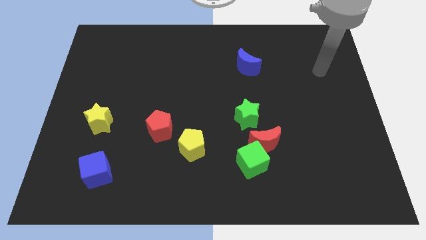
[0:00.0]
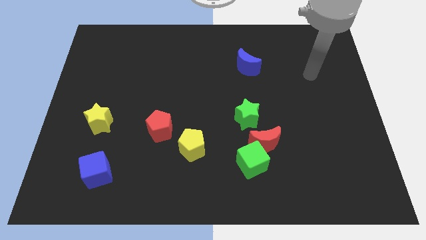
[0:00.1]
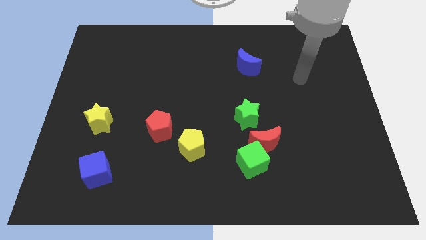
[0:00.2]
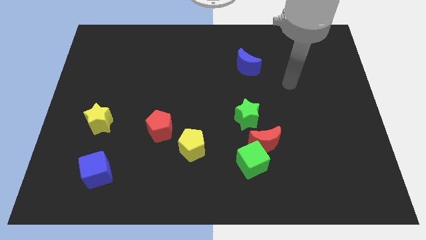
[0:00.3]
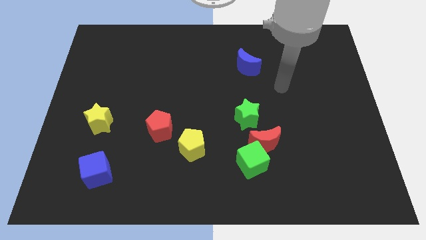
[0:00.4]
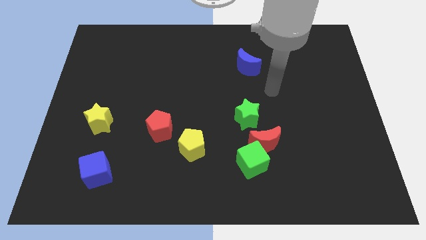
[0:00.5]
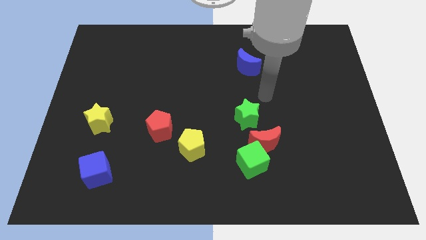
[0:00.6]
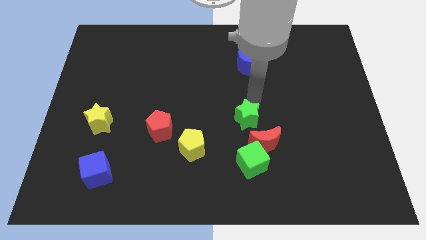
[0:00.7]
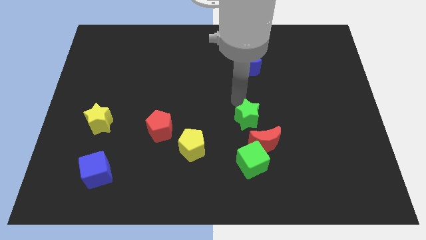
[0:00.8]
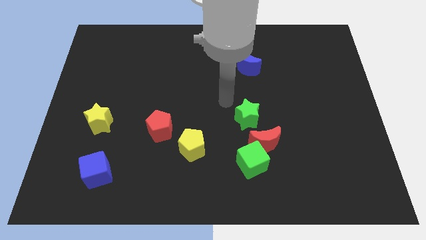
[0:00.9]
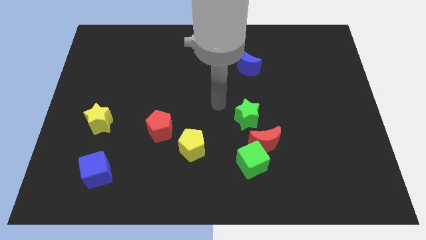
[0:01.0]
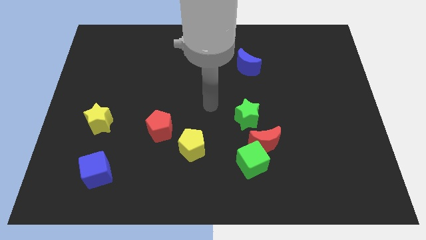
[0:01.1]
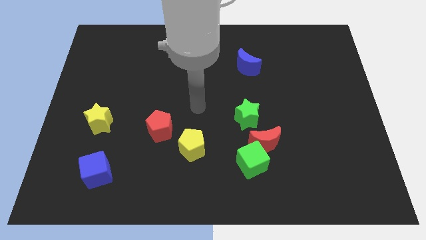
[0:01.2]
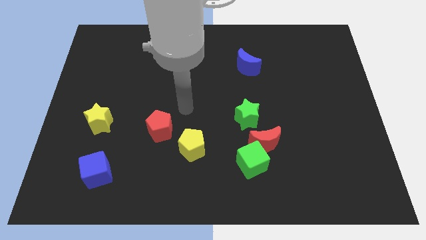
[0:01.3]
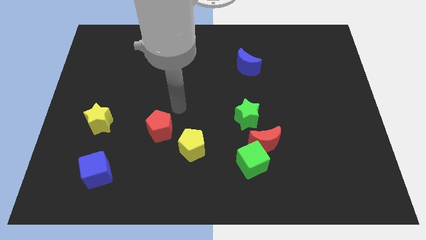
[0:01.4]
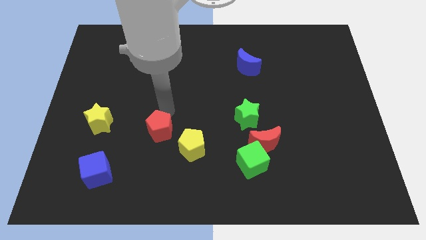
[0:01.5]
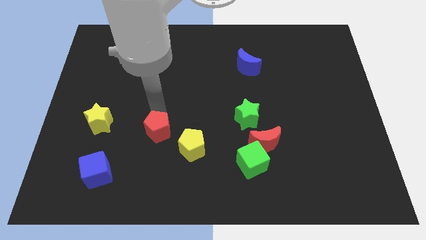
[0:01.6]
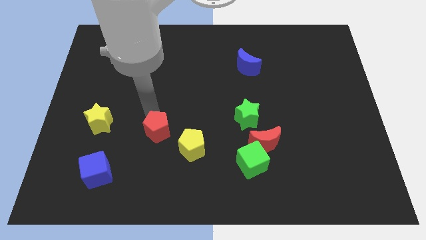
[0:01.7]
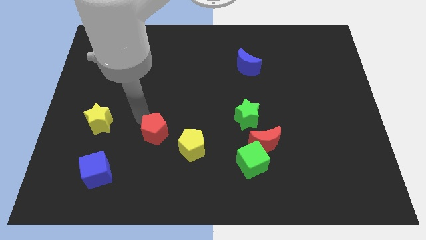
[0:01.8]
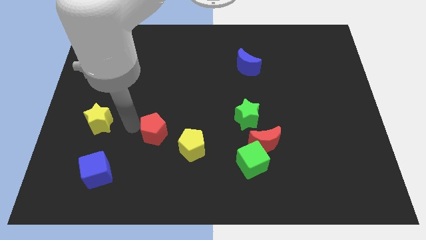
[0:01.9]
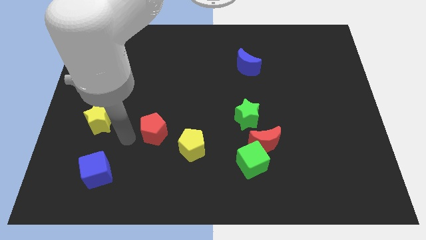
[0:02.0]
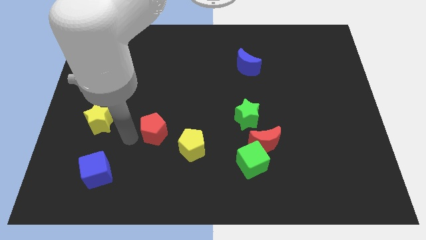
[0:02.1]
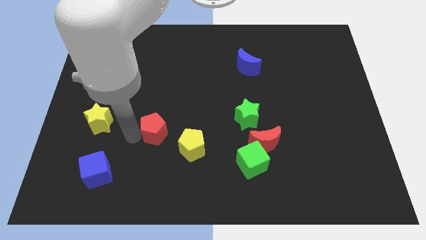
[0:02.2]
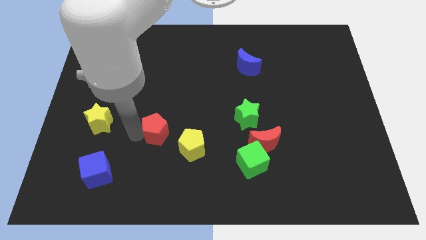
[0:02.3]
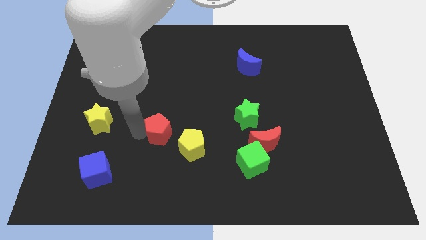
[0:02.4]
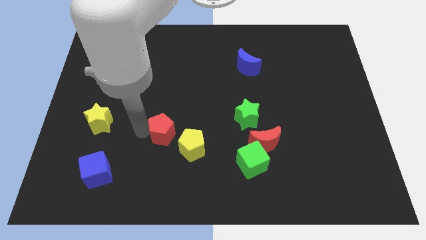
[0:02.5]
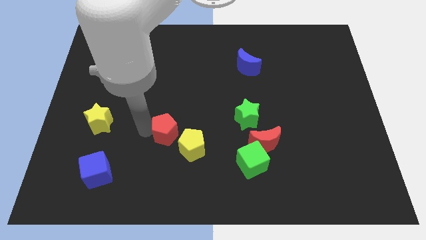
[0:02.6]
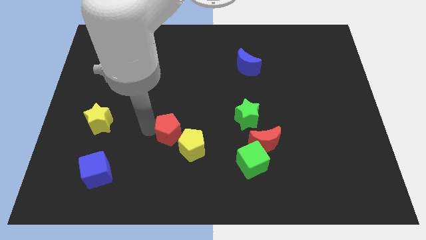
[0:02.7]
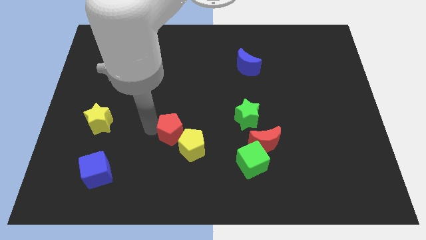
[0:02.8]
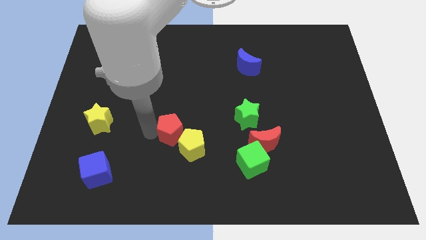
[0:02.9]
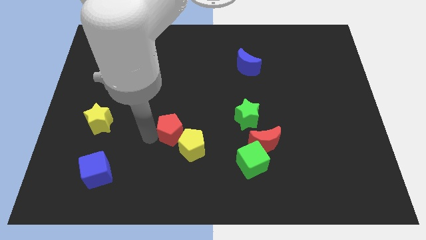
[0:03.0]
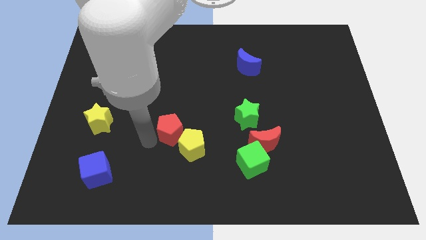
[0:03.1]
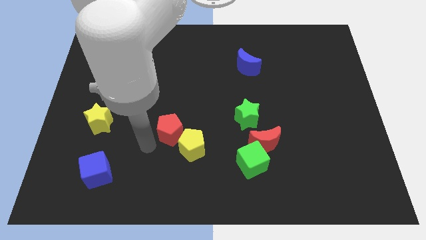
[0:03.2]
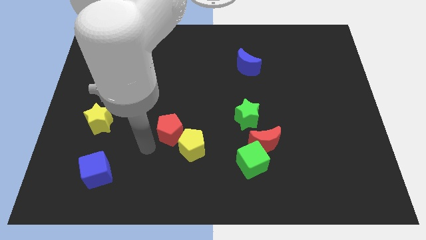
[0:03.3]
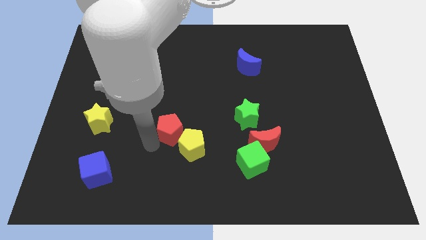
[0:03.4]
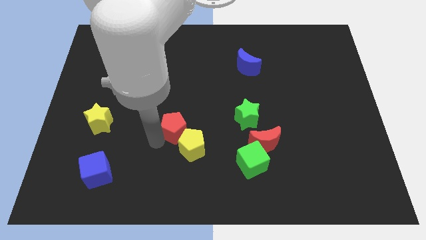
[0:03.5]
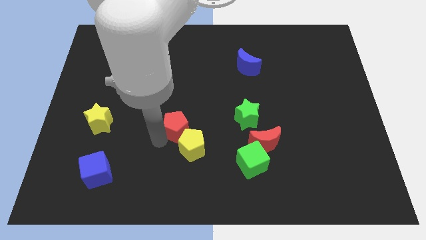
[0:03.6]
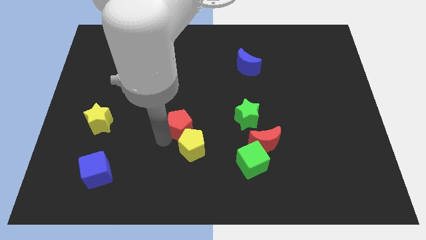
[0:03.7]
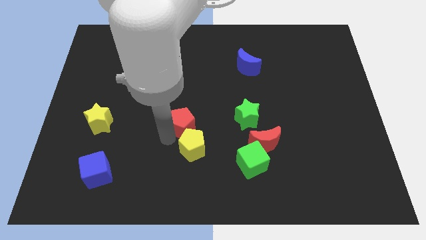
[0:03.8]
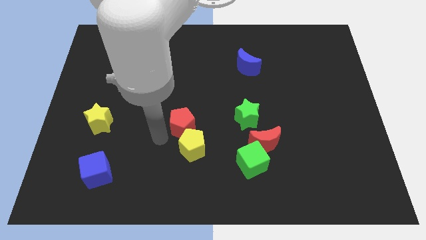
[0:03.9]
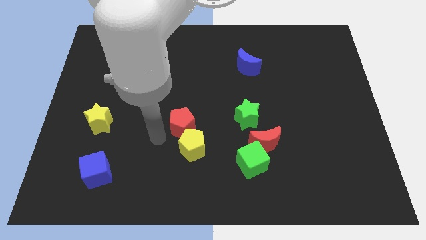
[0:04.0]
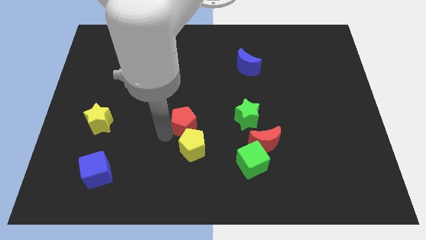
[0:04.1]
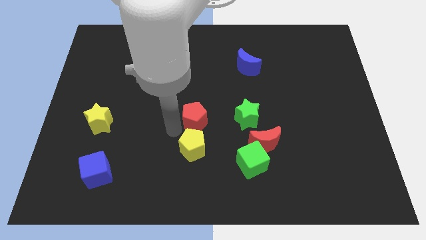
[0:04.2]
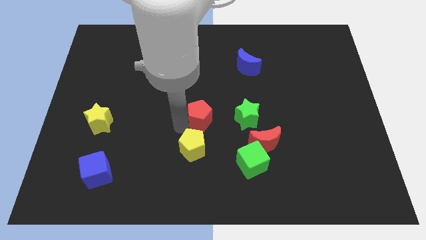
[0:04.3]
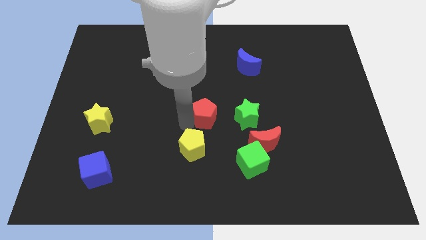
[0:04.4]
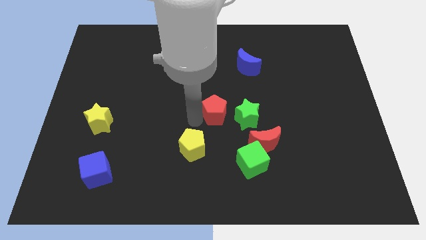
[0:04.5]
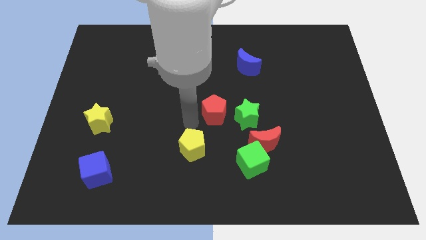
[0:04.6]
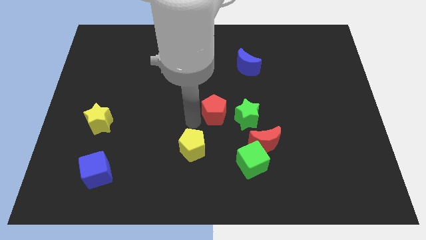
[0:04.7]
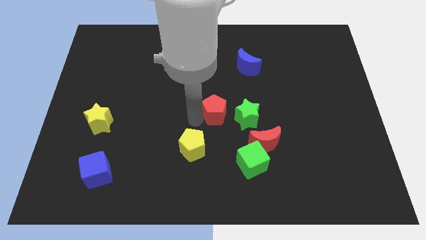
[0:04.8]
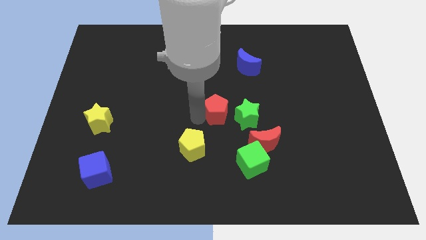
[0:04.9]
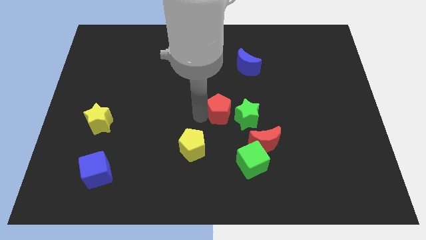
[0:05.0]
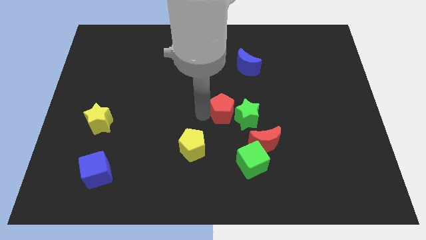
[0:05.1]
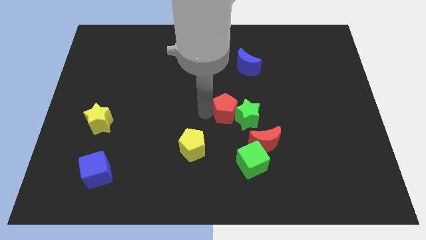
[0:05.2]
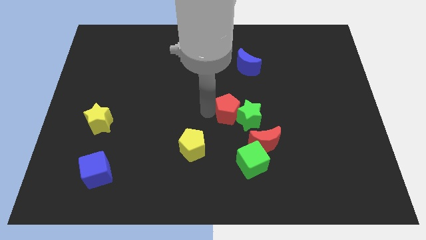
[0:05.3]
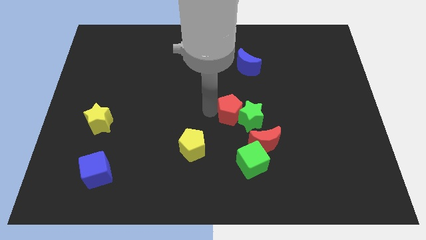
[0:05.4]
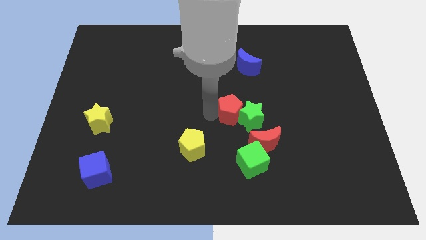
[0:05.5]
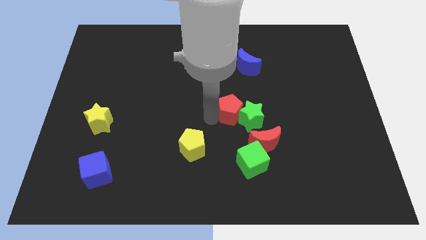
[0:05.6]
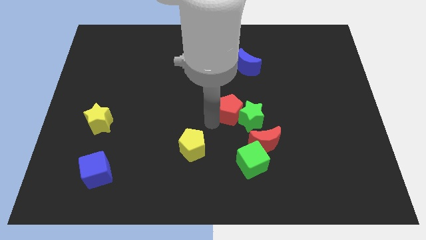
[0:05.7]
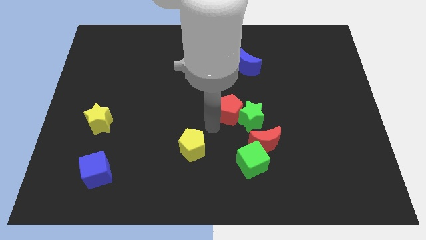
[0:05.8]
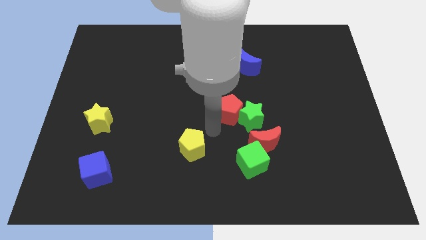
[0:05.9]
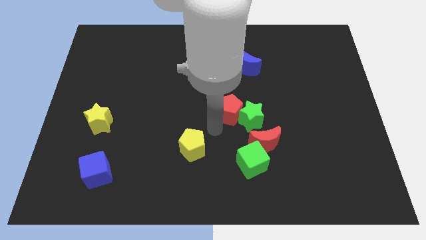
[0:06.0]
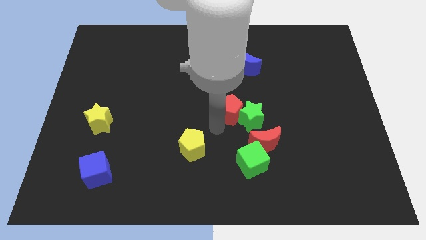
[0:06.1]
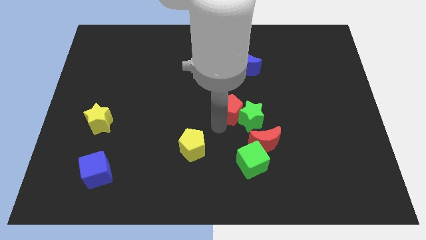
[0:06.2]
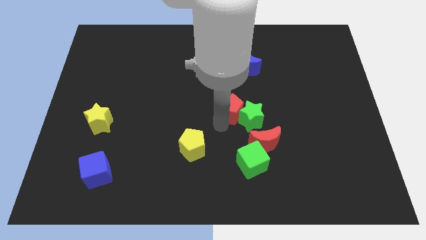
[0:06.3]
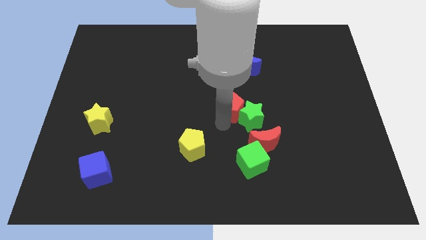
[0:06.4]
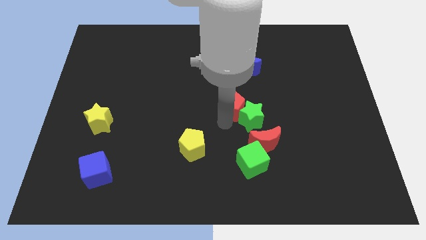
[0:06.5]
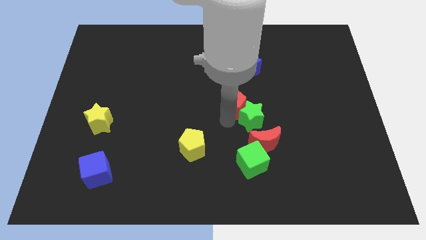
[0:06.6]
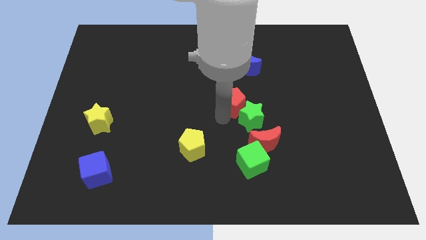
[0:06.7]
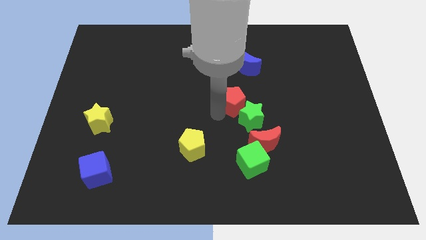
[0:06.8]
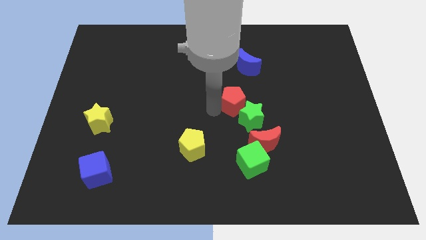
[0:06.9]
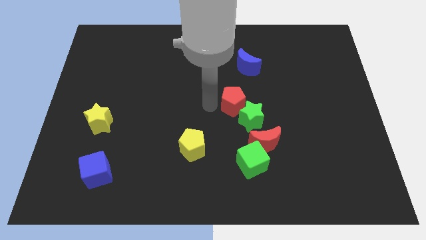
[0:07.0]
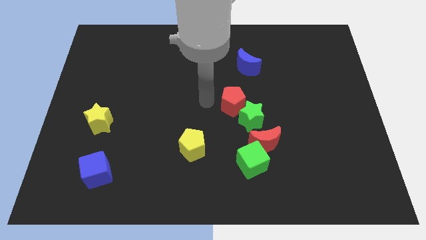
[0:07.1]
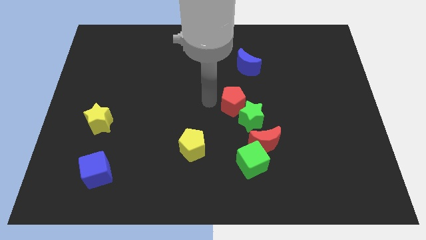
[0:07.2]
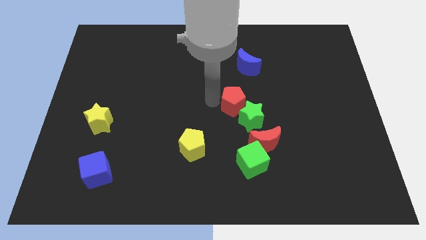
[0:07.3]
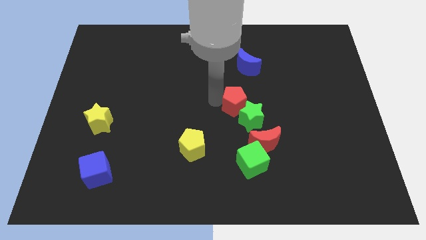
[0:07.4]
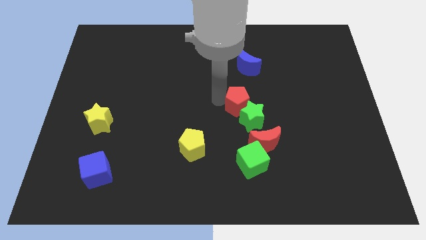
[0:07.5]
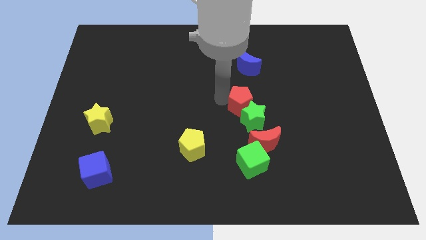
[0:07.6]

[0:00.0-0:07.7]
move the red pentagon above the red moon
